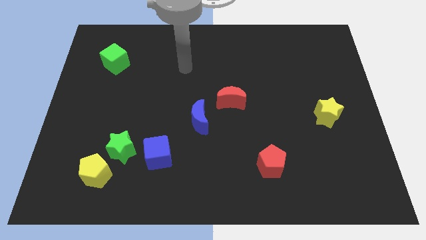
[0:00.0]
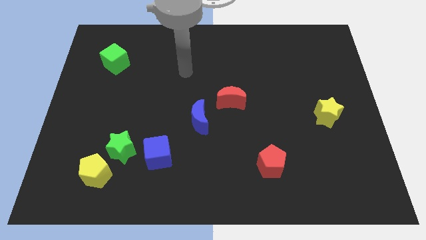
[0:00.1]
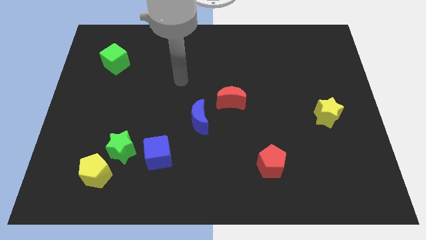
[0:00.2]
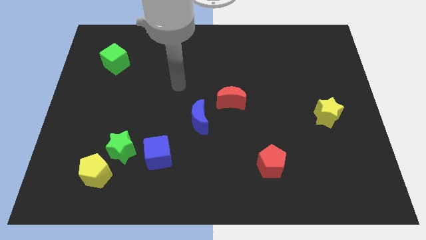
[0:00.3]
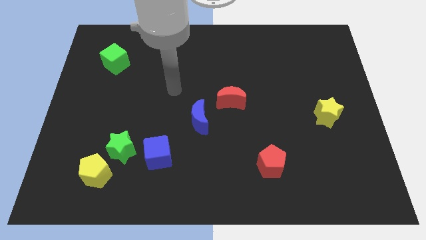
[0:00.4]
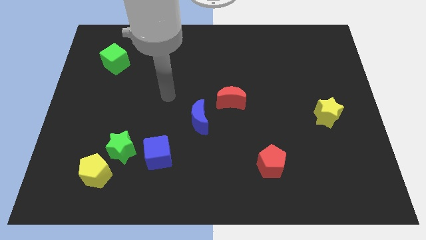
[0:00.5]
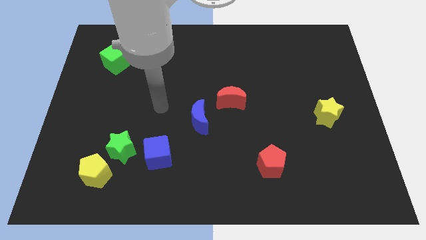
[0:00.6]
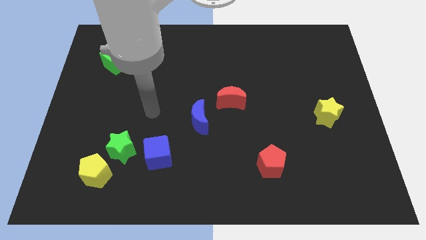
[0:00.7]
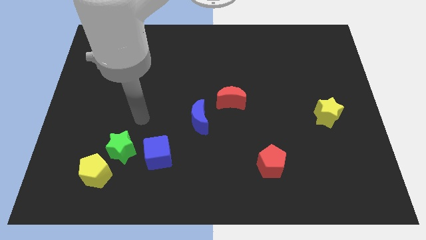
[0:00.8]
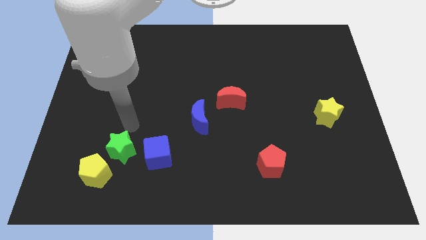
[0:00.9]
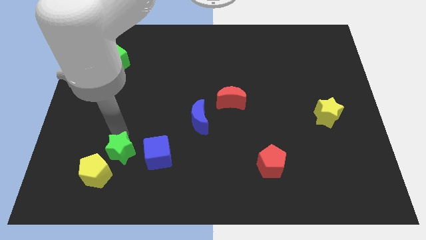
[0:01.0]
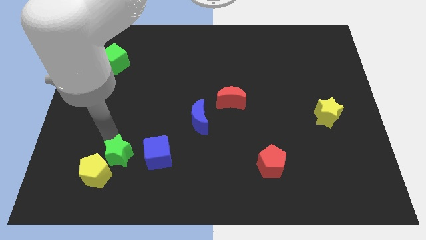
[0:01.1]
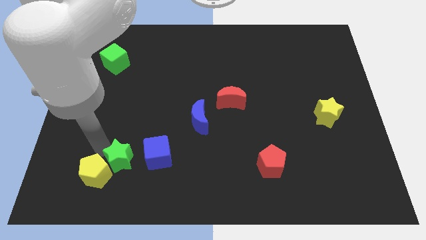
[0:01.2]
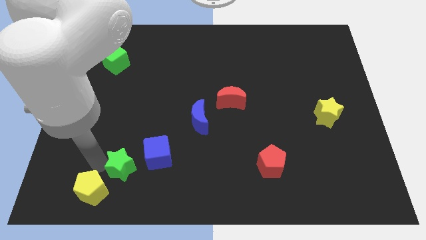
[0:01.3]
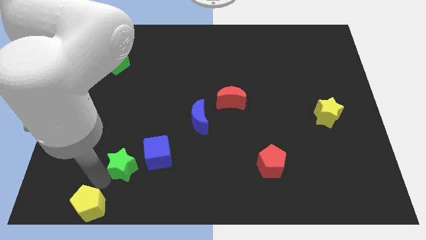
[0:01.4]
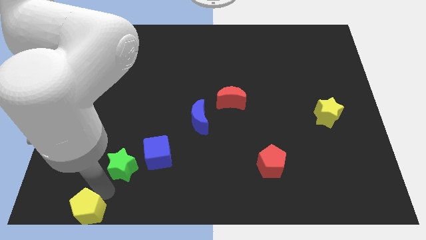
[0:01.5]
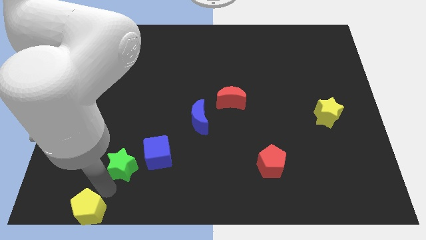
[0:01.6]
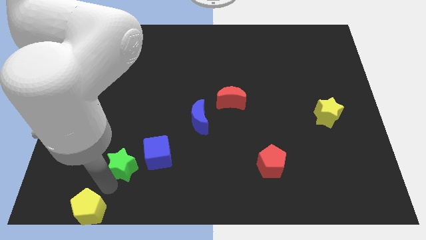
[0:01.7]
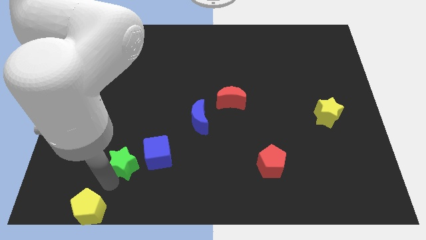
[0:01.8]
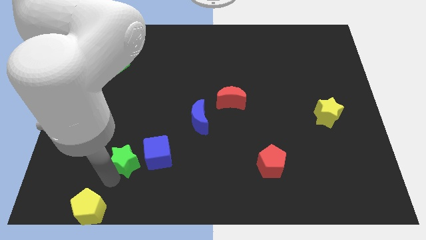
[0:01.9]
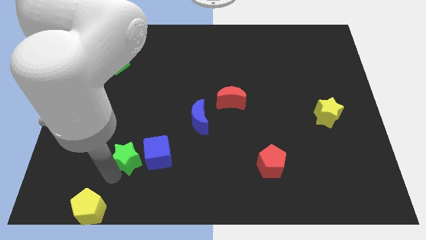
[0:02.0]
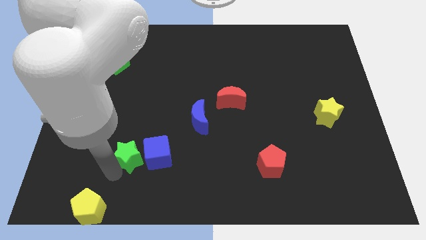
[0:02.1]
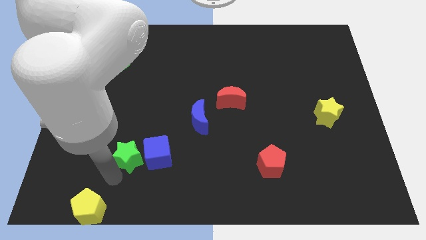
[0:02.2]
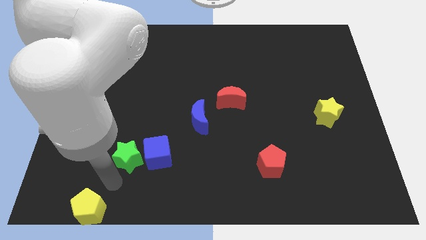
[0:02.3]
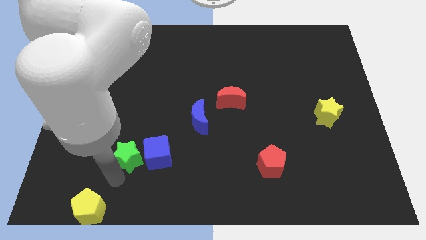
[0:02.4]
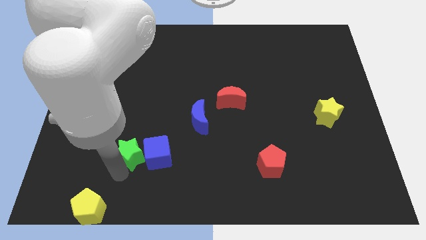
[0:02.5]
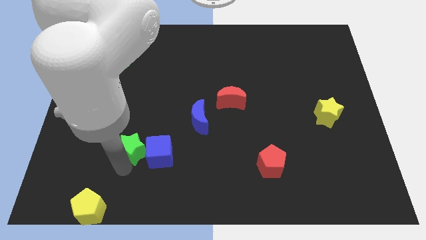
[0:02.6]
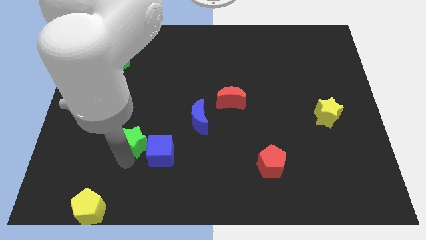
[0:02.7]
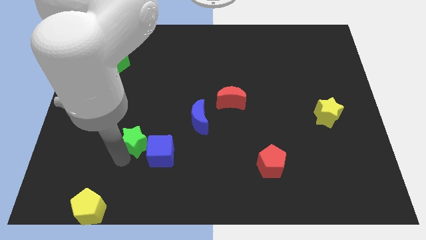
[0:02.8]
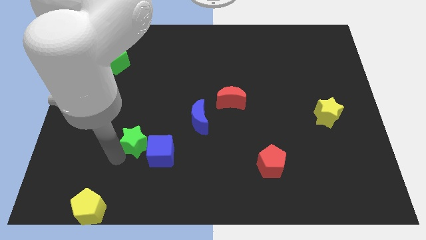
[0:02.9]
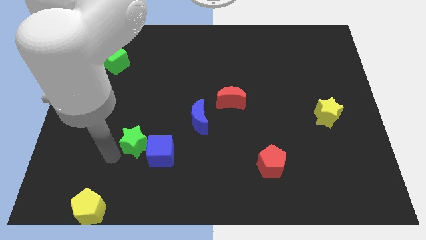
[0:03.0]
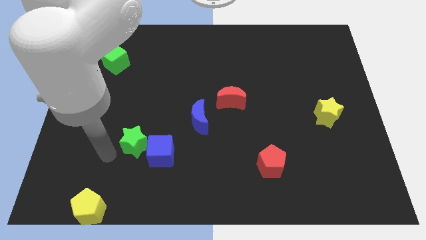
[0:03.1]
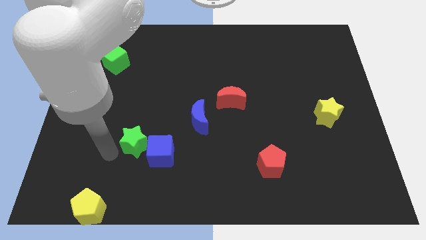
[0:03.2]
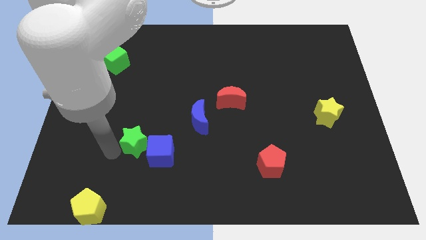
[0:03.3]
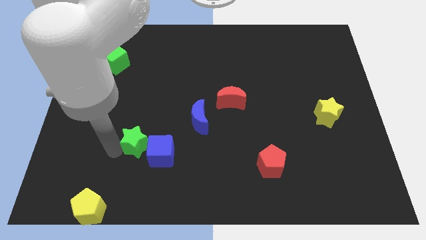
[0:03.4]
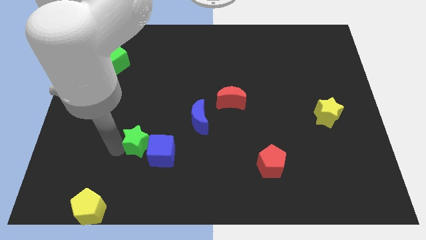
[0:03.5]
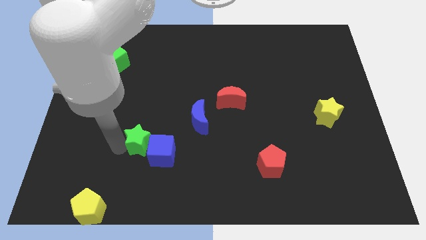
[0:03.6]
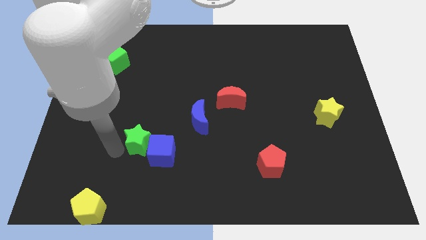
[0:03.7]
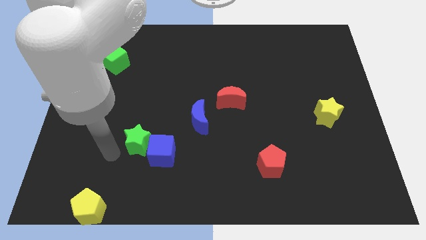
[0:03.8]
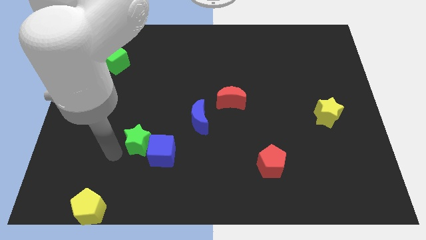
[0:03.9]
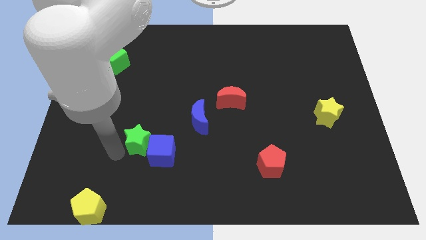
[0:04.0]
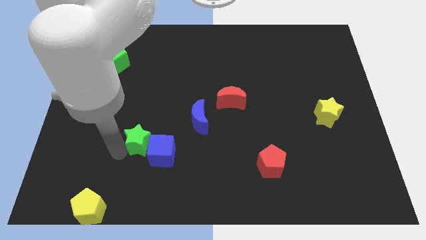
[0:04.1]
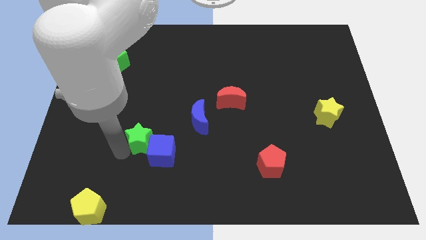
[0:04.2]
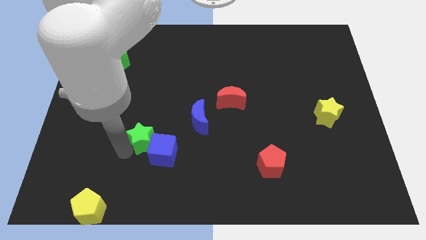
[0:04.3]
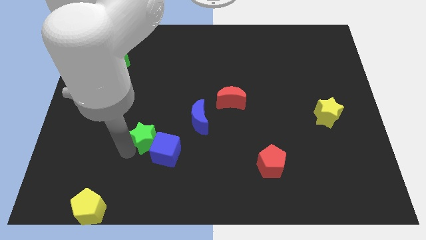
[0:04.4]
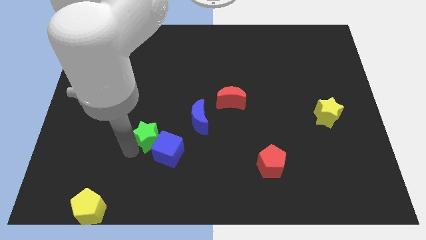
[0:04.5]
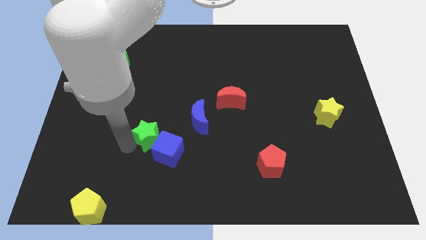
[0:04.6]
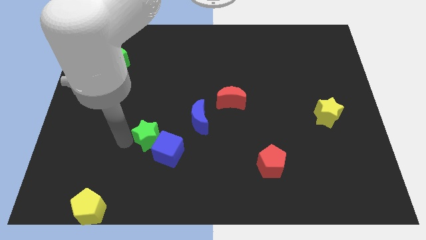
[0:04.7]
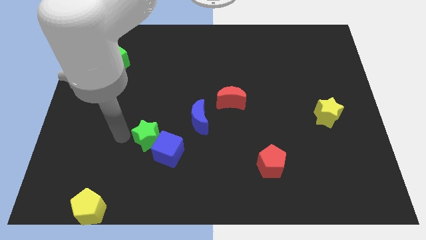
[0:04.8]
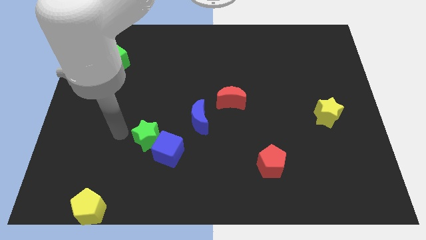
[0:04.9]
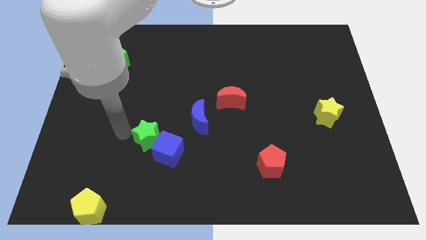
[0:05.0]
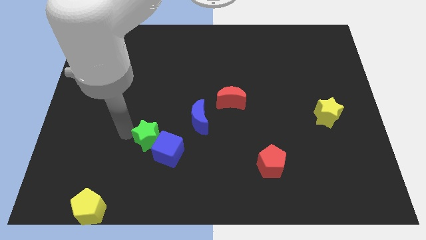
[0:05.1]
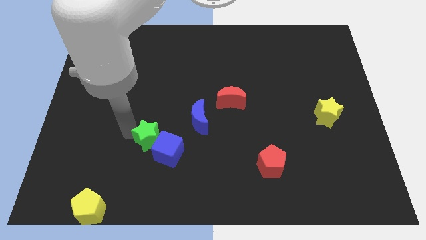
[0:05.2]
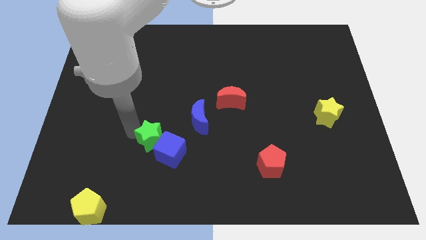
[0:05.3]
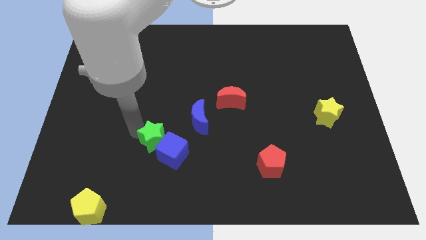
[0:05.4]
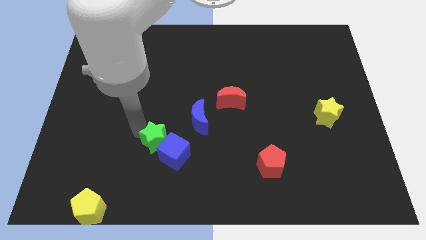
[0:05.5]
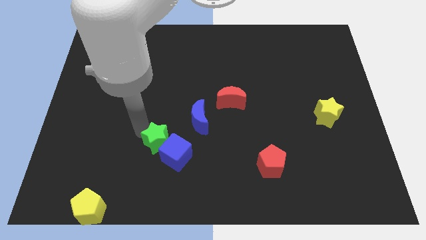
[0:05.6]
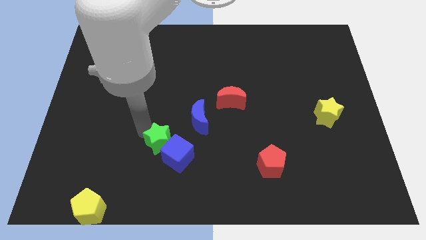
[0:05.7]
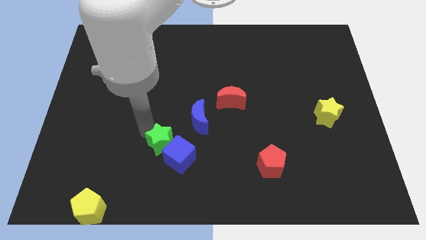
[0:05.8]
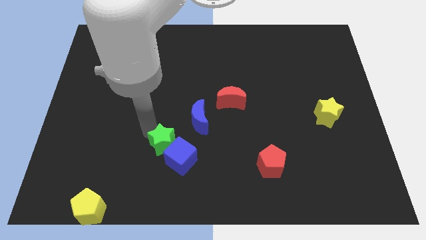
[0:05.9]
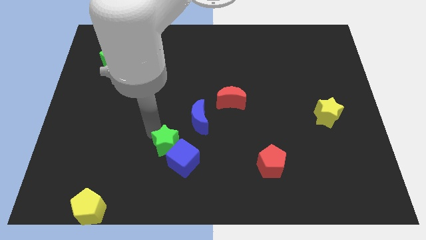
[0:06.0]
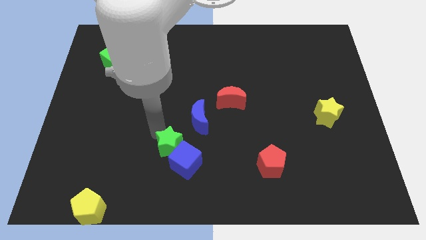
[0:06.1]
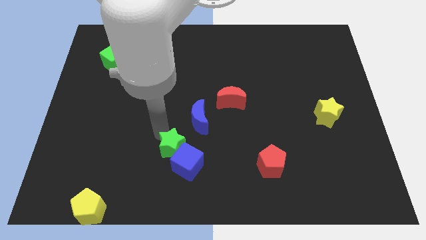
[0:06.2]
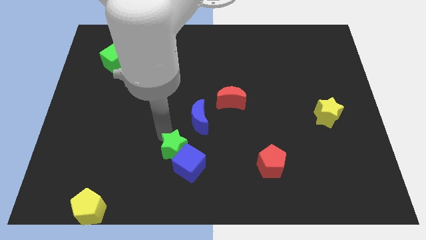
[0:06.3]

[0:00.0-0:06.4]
put the green star below the blue moon

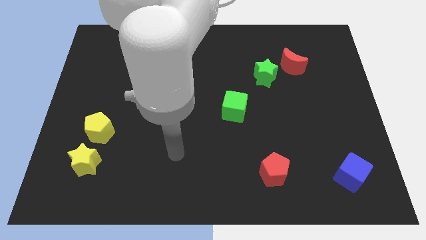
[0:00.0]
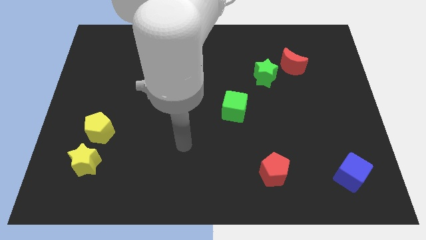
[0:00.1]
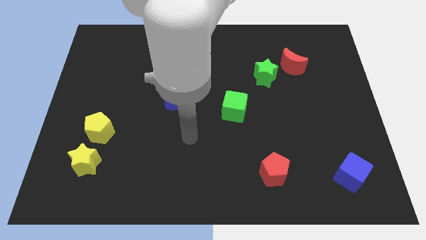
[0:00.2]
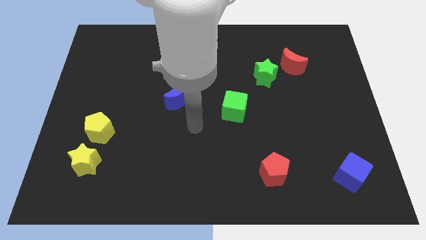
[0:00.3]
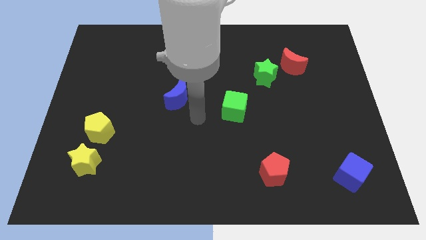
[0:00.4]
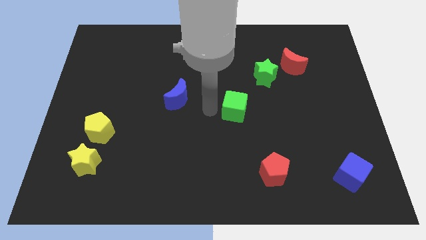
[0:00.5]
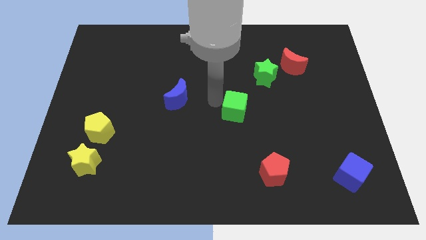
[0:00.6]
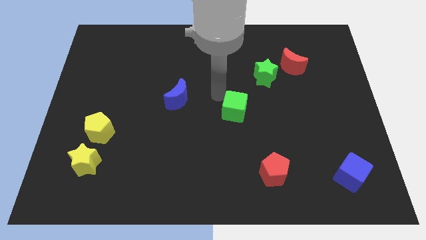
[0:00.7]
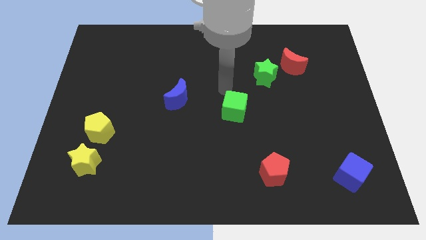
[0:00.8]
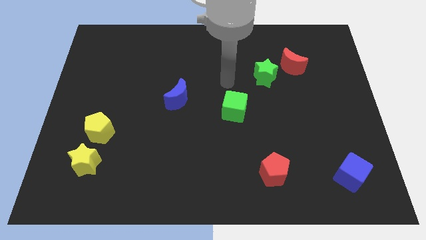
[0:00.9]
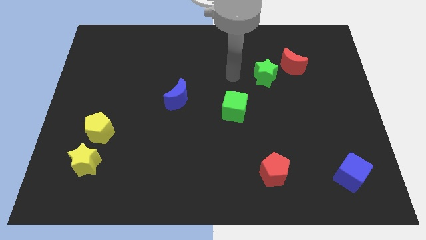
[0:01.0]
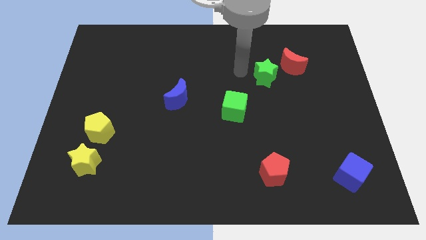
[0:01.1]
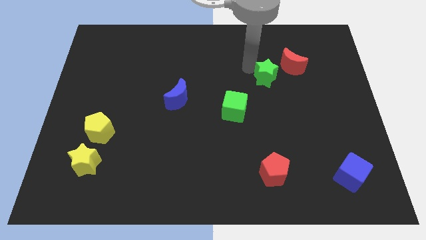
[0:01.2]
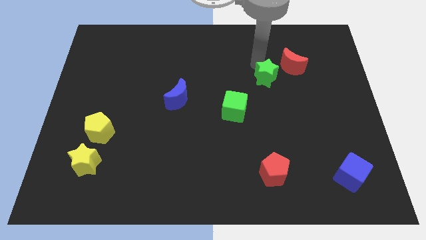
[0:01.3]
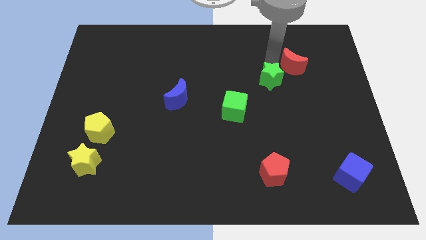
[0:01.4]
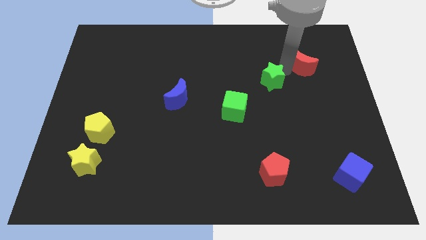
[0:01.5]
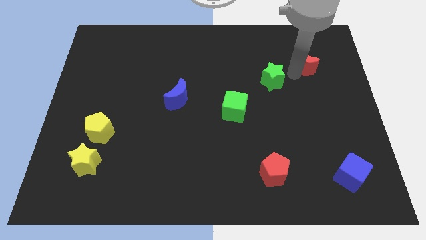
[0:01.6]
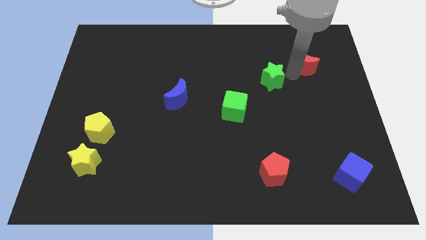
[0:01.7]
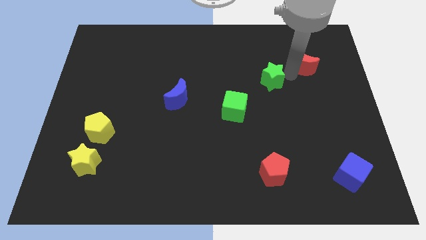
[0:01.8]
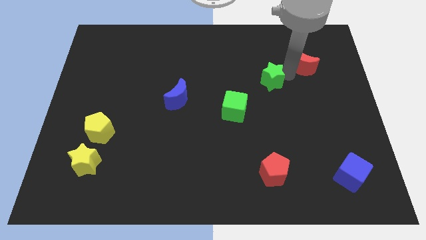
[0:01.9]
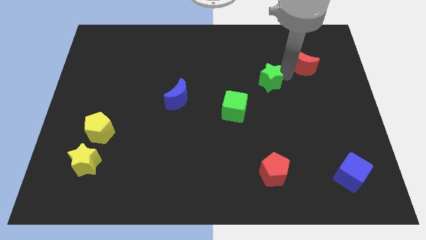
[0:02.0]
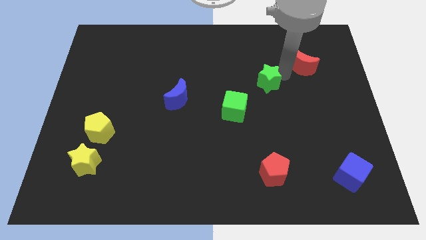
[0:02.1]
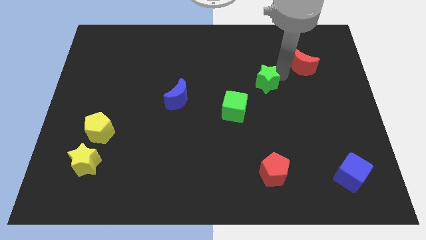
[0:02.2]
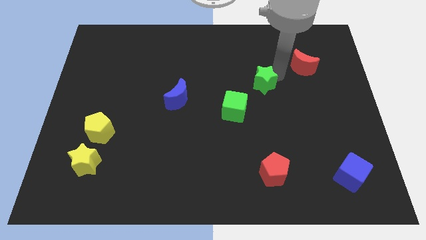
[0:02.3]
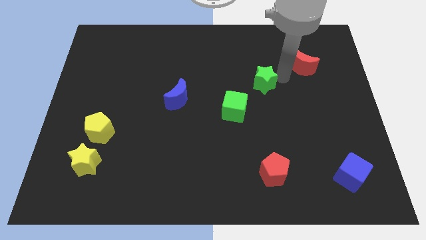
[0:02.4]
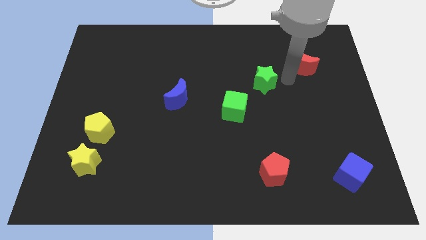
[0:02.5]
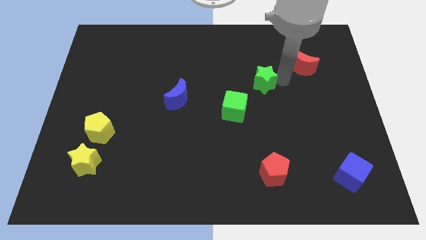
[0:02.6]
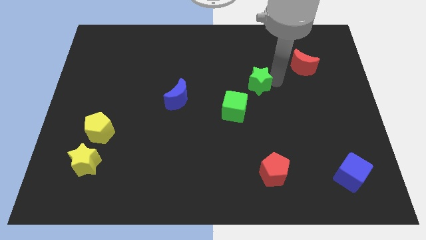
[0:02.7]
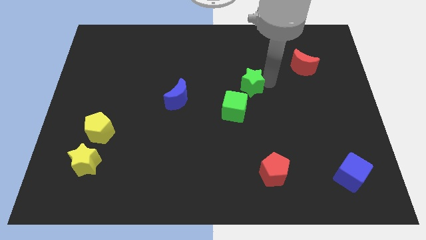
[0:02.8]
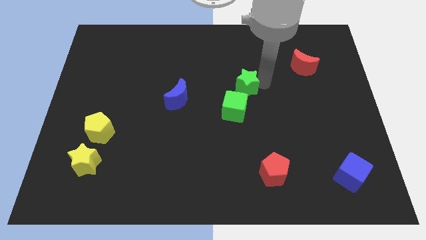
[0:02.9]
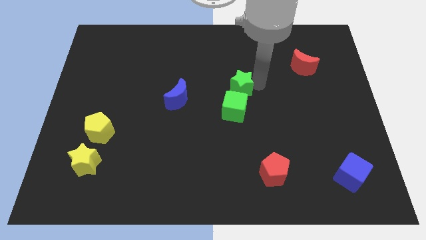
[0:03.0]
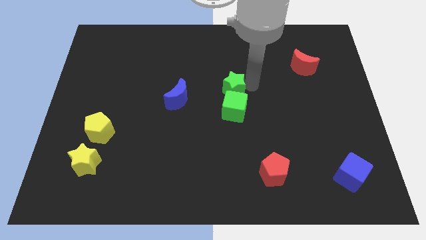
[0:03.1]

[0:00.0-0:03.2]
slide the green star to the top left of the green cube
